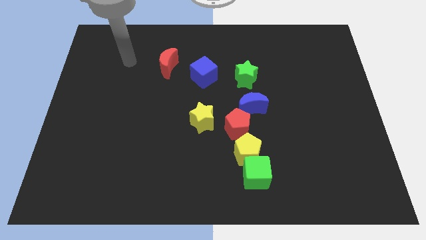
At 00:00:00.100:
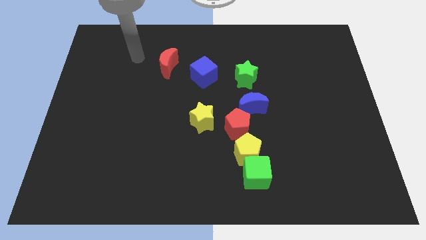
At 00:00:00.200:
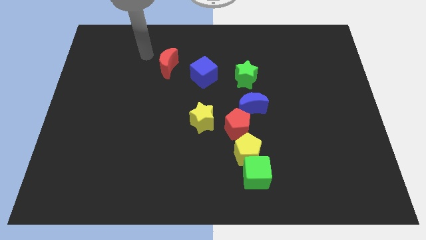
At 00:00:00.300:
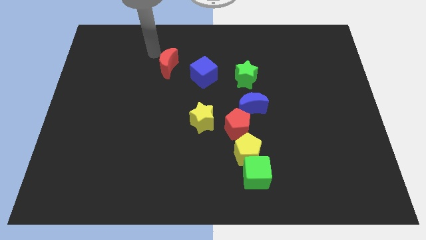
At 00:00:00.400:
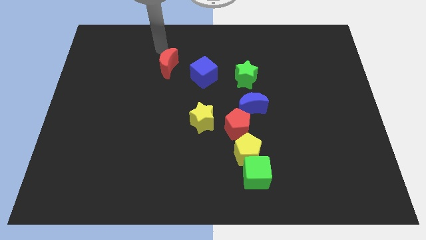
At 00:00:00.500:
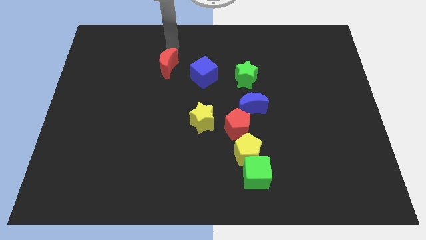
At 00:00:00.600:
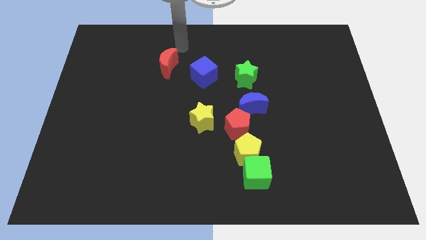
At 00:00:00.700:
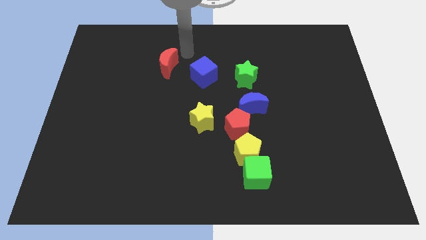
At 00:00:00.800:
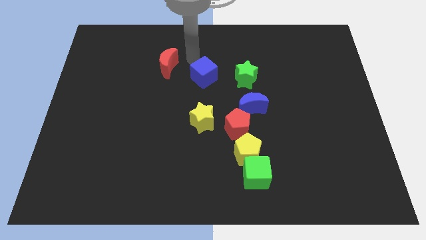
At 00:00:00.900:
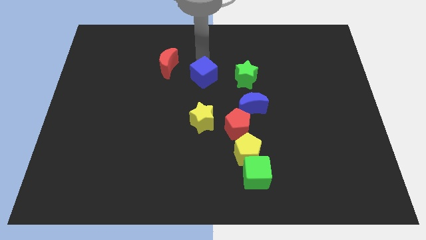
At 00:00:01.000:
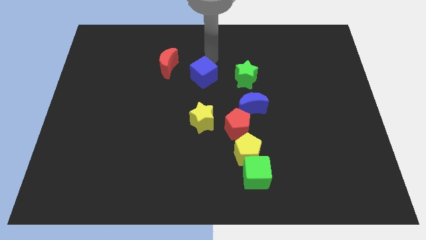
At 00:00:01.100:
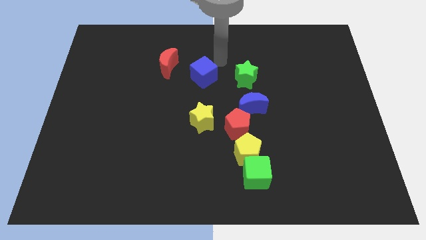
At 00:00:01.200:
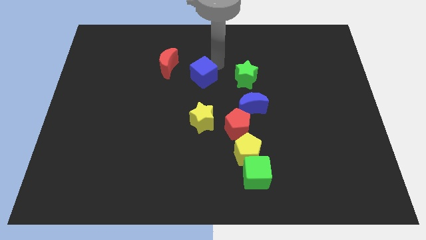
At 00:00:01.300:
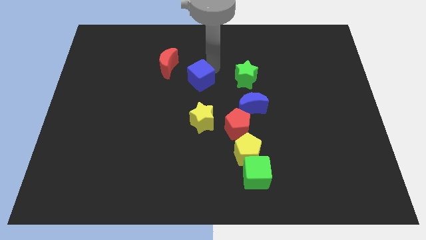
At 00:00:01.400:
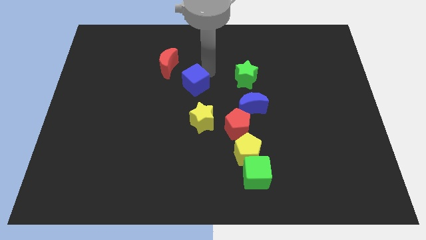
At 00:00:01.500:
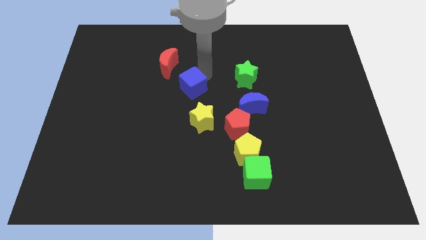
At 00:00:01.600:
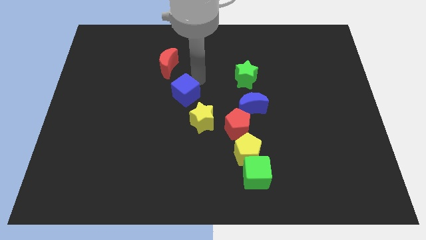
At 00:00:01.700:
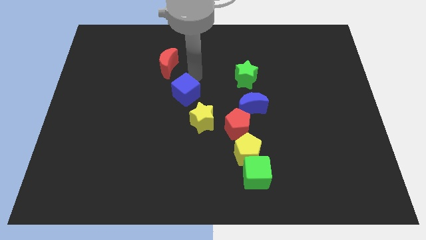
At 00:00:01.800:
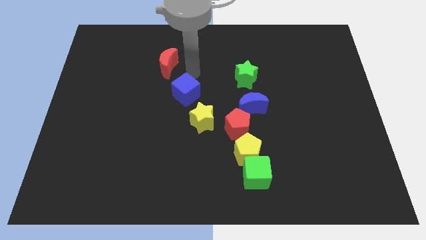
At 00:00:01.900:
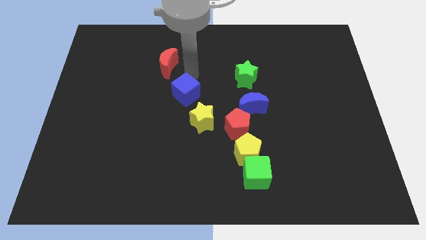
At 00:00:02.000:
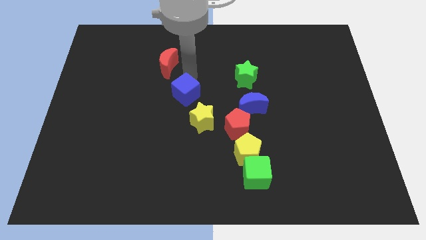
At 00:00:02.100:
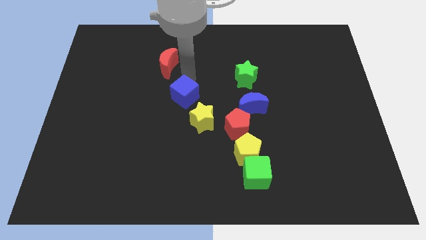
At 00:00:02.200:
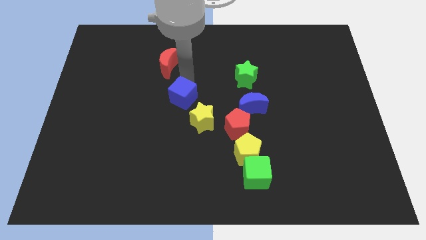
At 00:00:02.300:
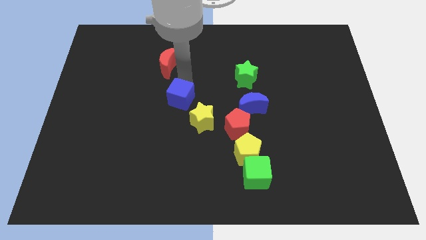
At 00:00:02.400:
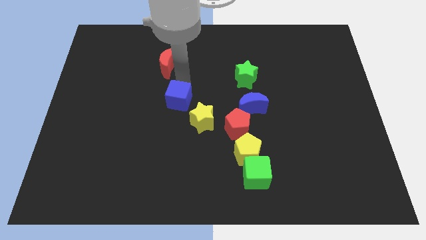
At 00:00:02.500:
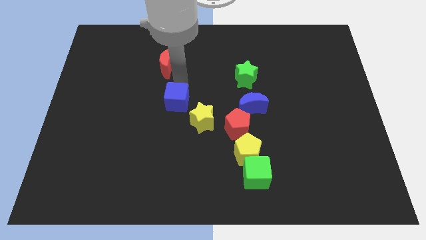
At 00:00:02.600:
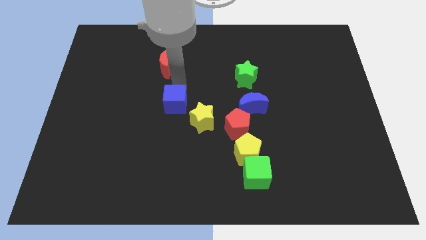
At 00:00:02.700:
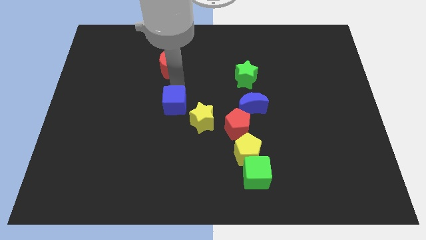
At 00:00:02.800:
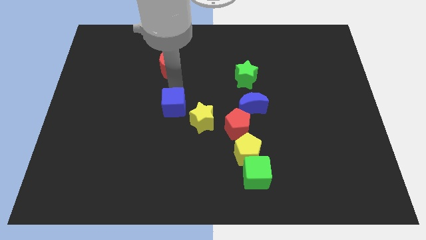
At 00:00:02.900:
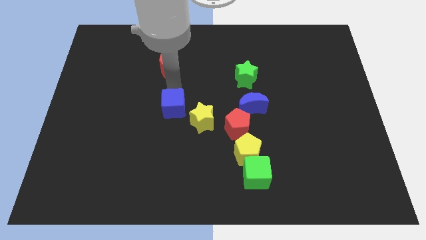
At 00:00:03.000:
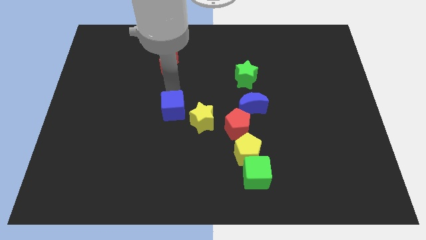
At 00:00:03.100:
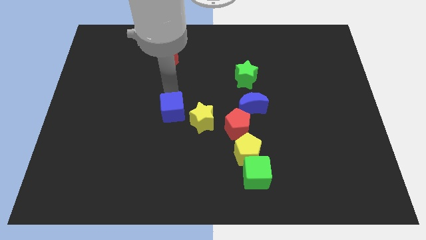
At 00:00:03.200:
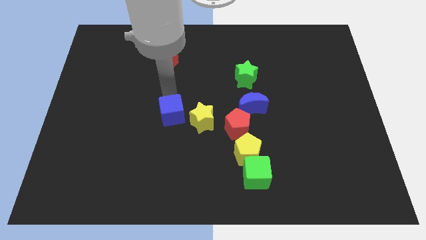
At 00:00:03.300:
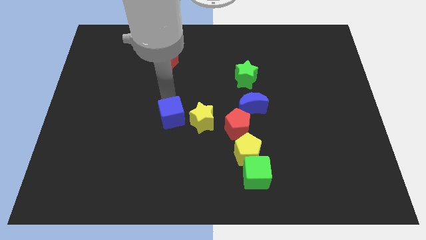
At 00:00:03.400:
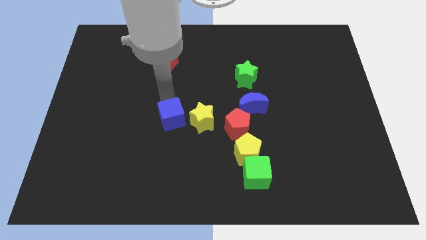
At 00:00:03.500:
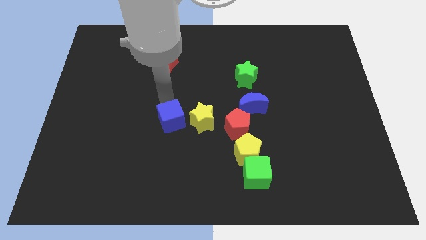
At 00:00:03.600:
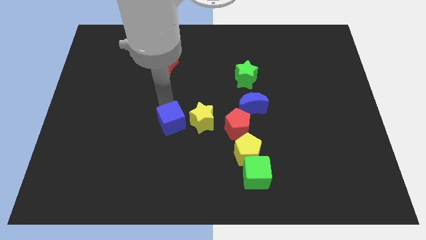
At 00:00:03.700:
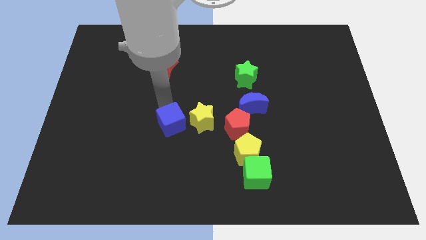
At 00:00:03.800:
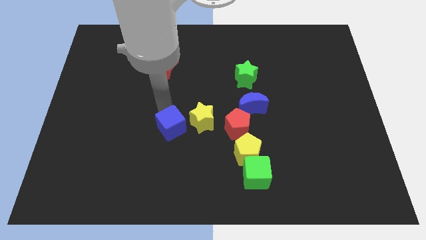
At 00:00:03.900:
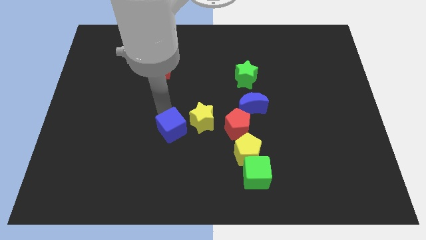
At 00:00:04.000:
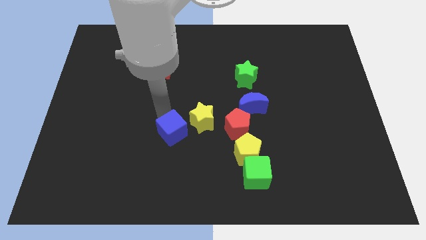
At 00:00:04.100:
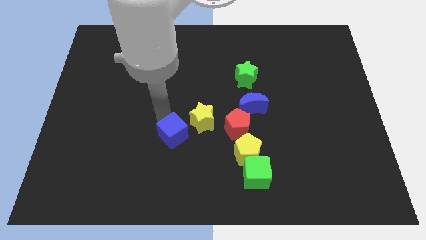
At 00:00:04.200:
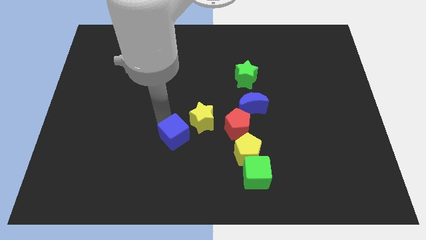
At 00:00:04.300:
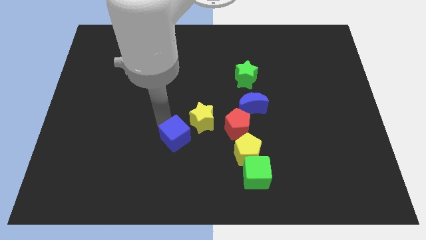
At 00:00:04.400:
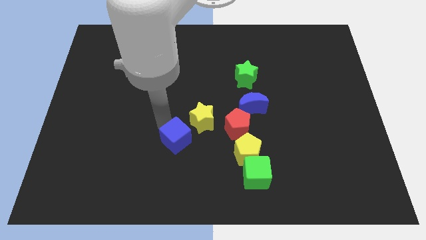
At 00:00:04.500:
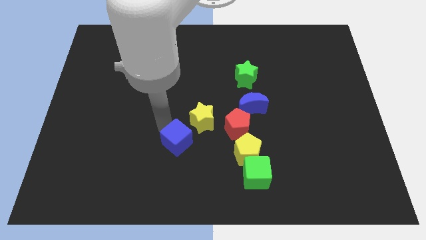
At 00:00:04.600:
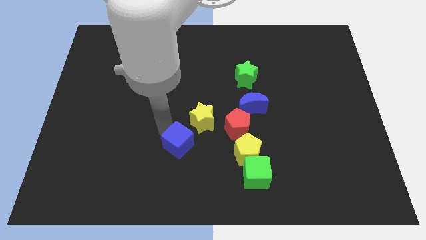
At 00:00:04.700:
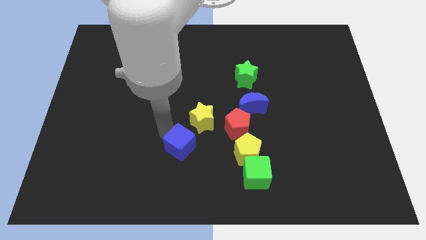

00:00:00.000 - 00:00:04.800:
put the blue cube below the yellow star

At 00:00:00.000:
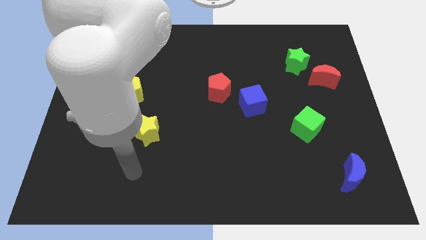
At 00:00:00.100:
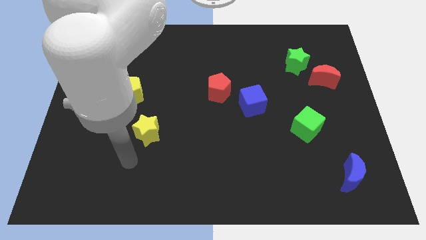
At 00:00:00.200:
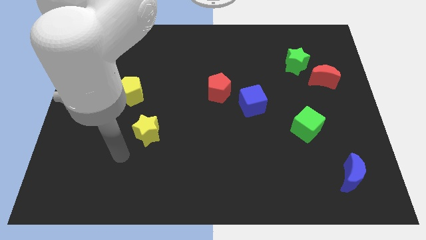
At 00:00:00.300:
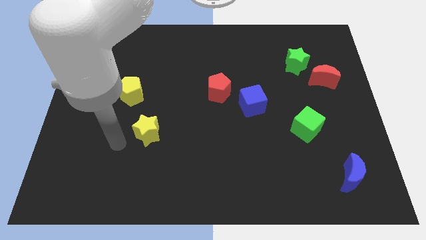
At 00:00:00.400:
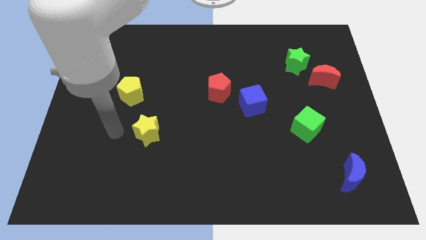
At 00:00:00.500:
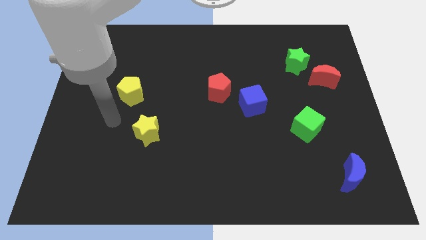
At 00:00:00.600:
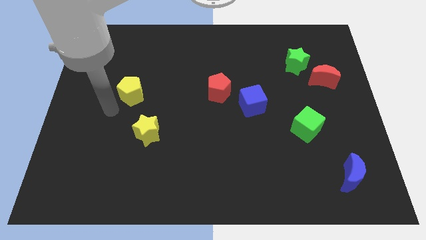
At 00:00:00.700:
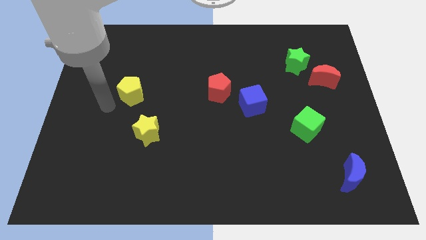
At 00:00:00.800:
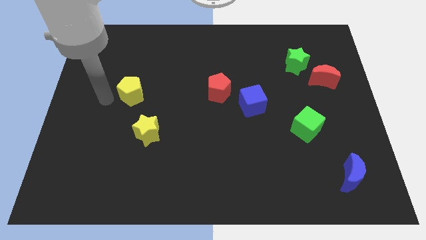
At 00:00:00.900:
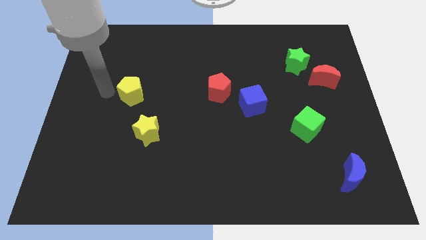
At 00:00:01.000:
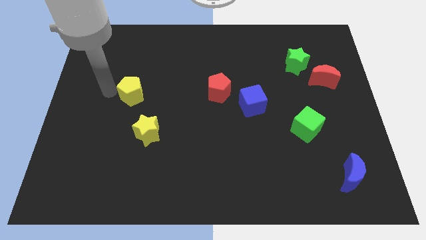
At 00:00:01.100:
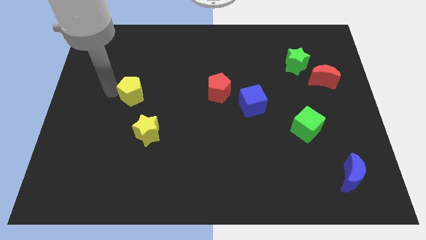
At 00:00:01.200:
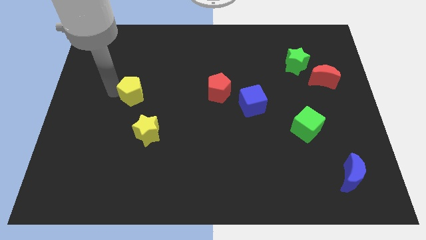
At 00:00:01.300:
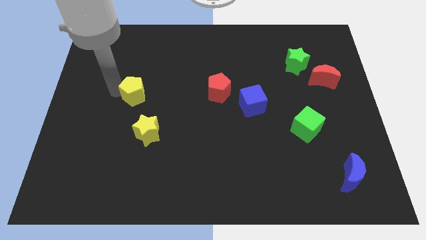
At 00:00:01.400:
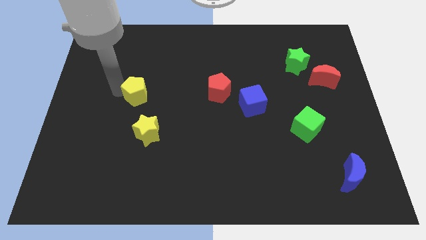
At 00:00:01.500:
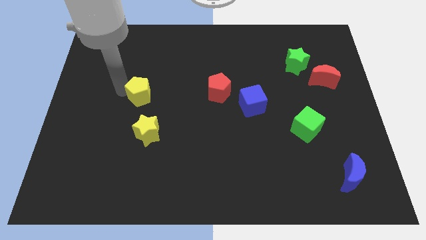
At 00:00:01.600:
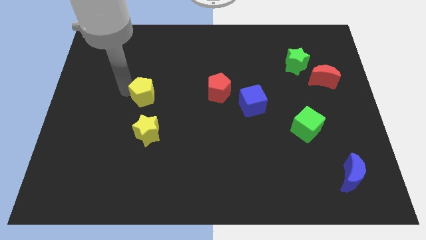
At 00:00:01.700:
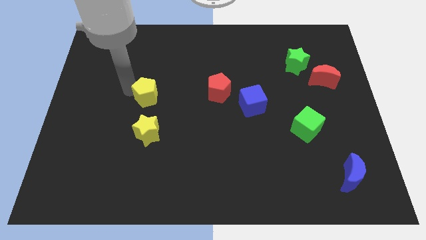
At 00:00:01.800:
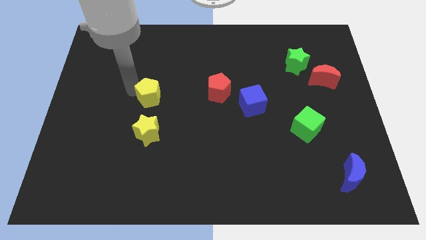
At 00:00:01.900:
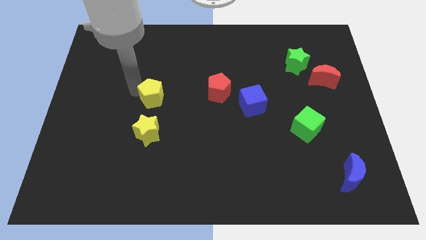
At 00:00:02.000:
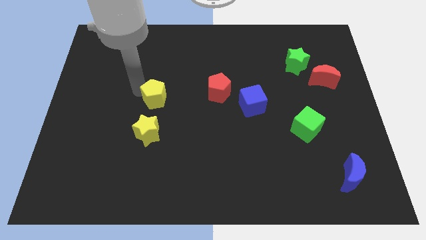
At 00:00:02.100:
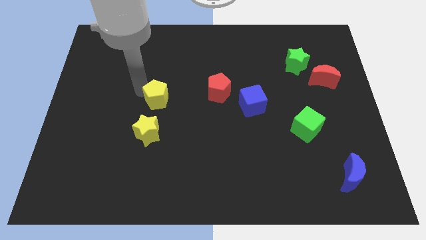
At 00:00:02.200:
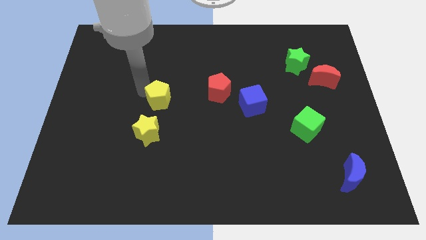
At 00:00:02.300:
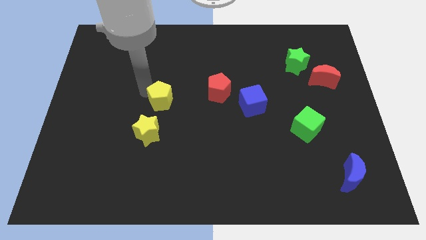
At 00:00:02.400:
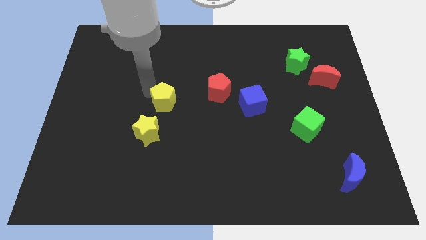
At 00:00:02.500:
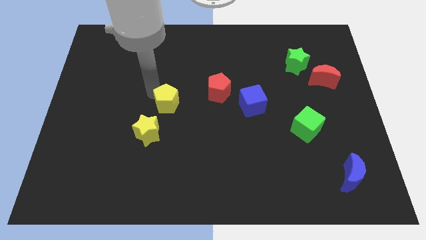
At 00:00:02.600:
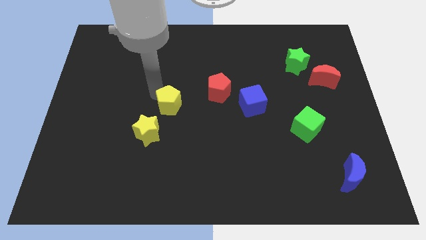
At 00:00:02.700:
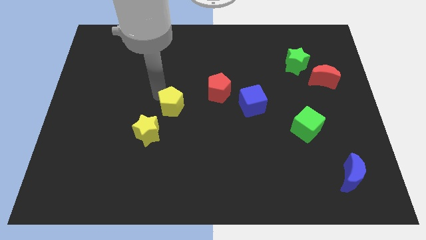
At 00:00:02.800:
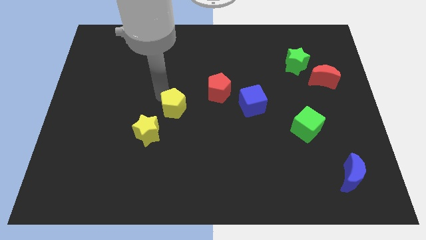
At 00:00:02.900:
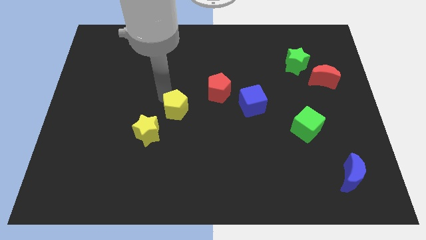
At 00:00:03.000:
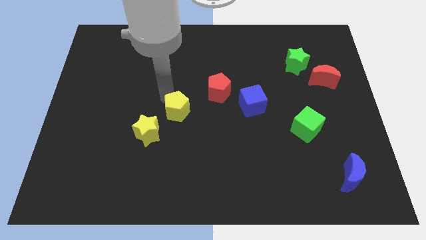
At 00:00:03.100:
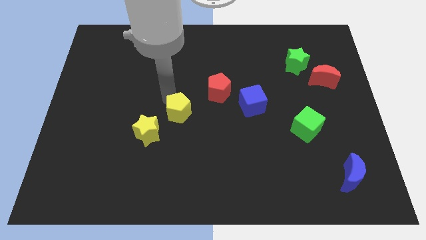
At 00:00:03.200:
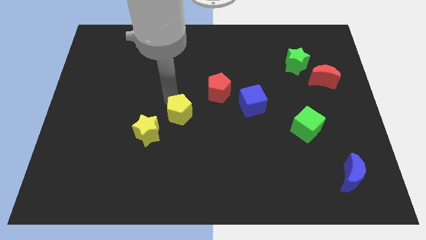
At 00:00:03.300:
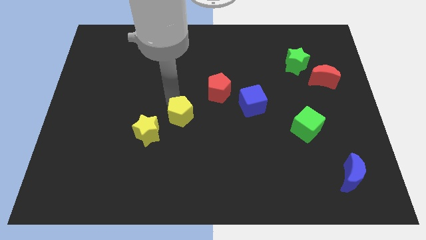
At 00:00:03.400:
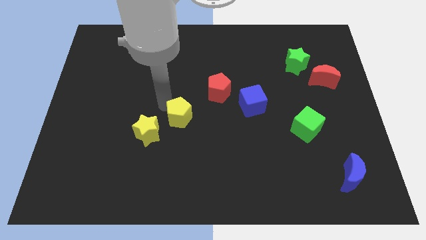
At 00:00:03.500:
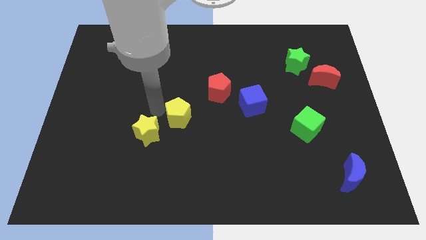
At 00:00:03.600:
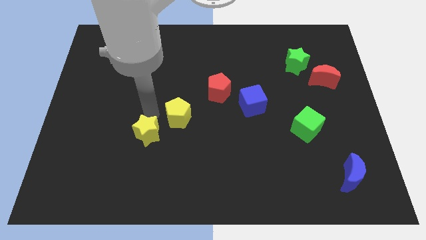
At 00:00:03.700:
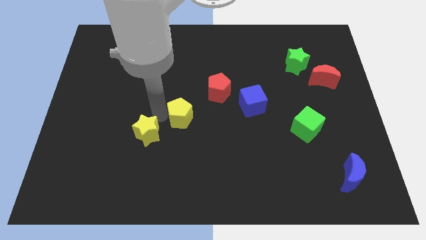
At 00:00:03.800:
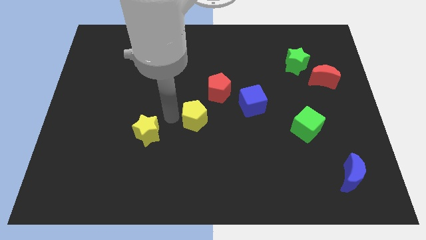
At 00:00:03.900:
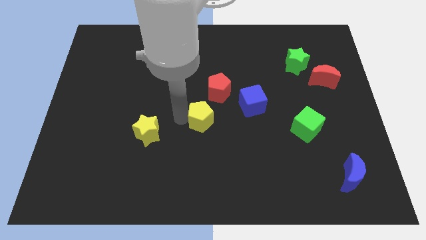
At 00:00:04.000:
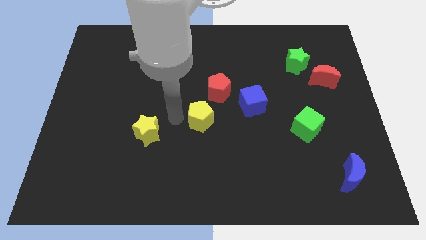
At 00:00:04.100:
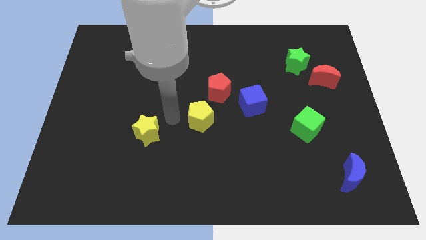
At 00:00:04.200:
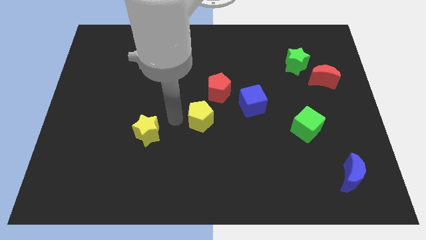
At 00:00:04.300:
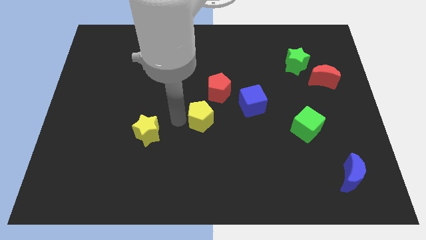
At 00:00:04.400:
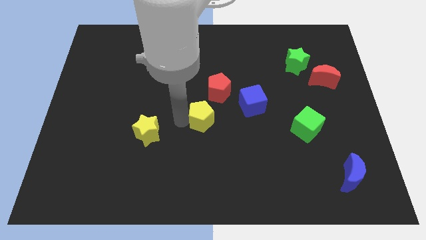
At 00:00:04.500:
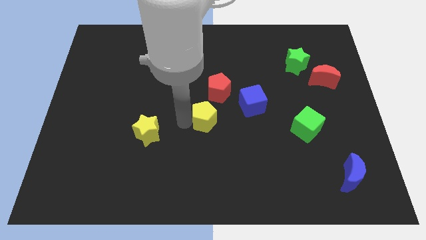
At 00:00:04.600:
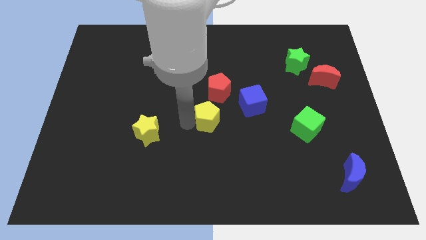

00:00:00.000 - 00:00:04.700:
put the yellow pentagon to the bottom left of the blue cube
